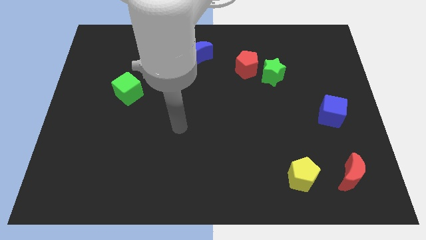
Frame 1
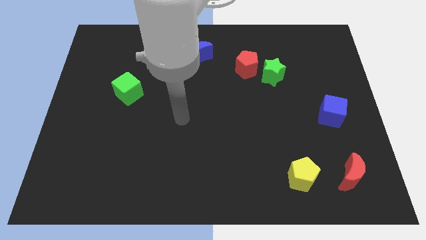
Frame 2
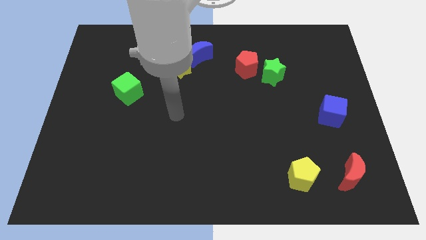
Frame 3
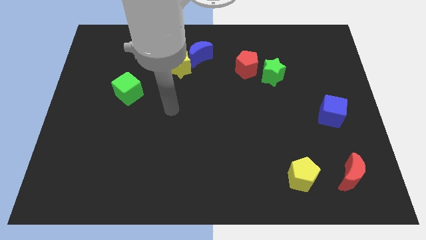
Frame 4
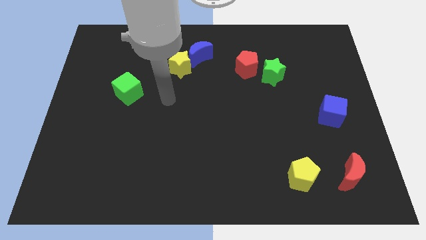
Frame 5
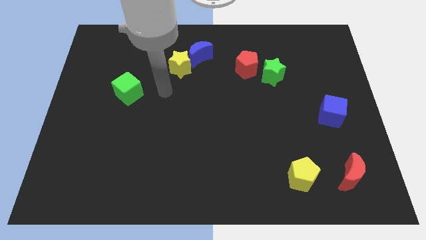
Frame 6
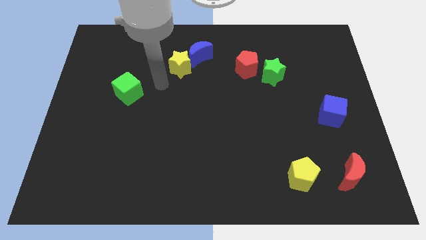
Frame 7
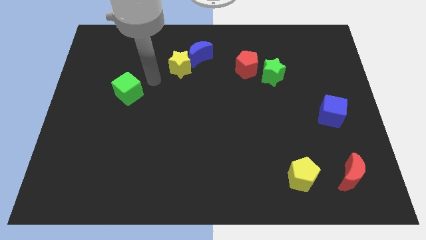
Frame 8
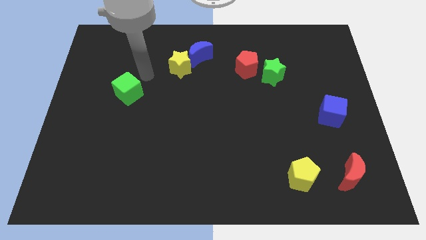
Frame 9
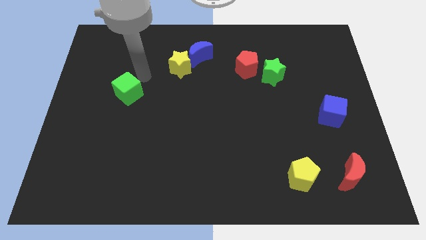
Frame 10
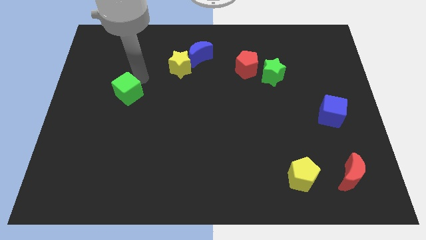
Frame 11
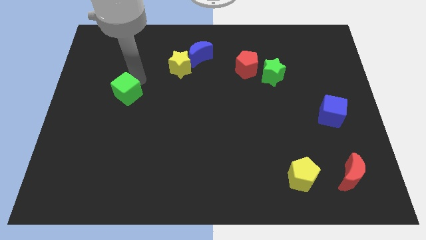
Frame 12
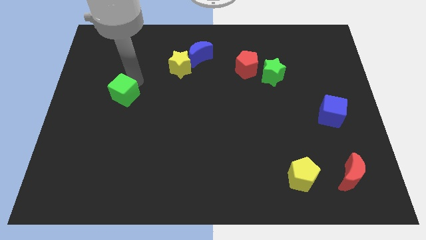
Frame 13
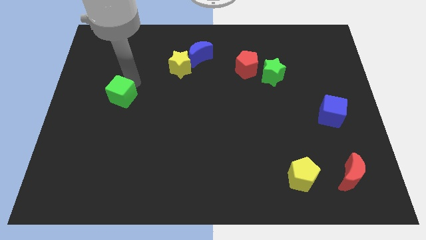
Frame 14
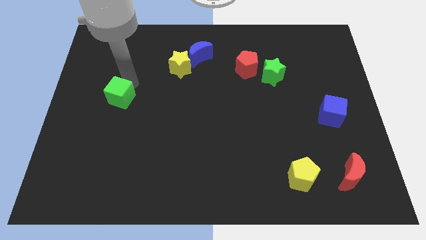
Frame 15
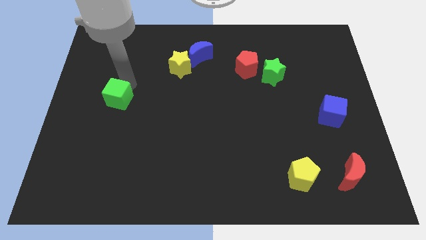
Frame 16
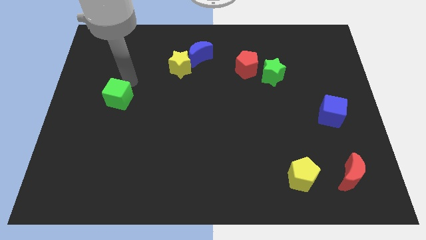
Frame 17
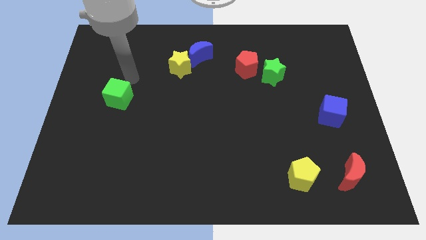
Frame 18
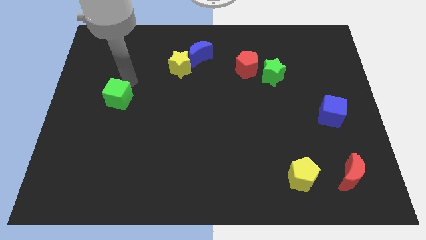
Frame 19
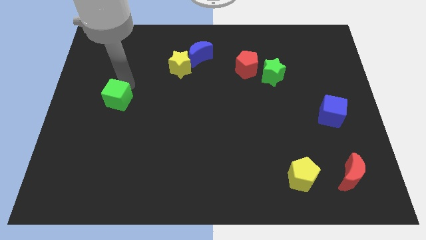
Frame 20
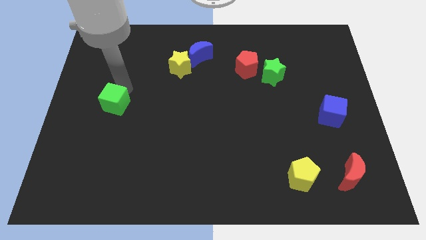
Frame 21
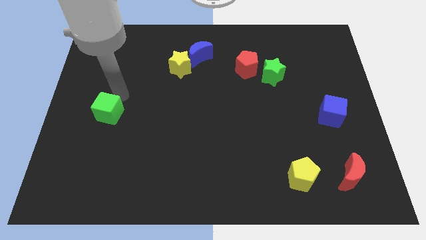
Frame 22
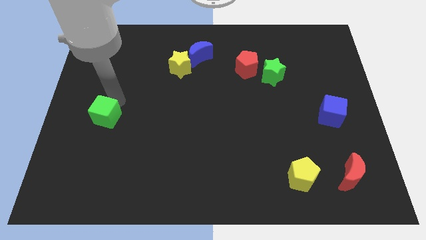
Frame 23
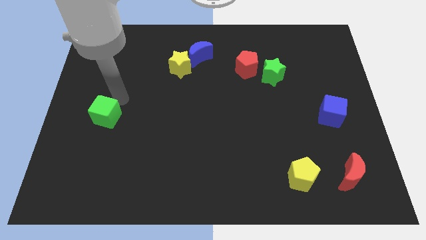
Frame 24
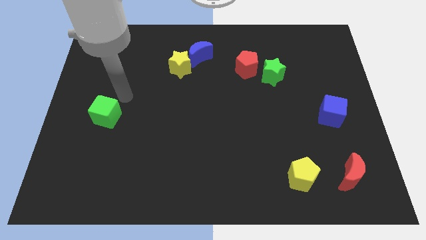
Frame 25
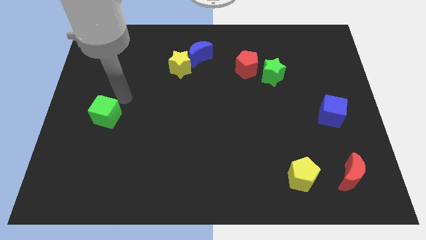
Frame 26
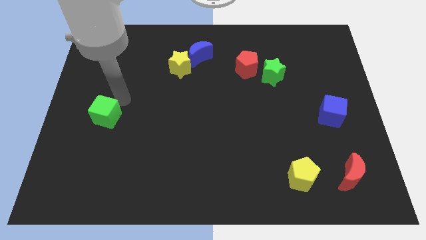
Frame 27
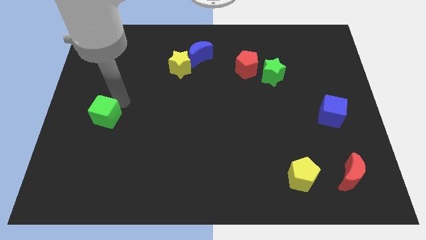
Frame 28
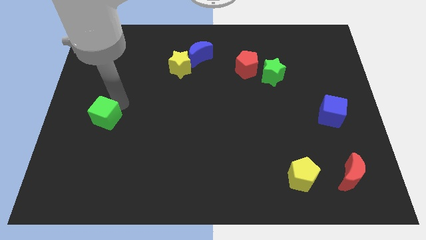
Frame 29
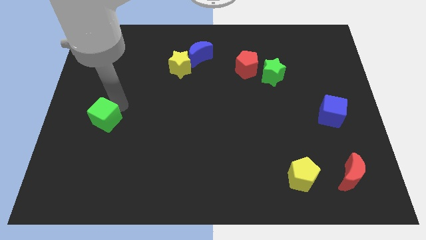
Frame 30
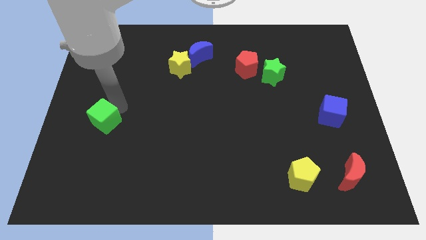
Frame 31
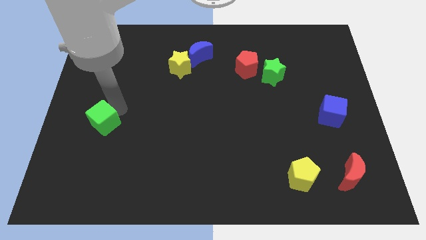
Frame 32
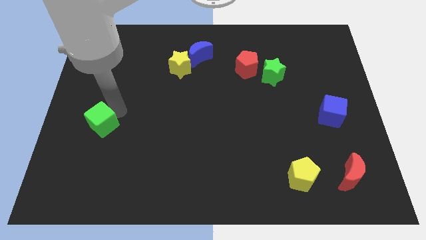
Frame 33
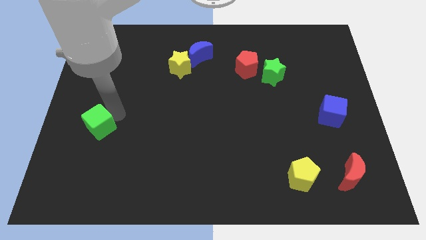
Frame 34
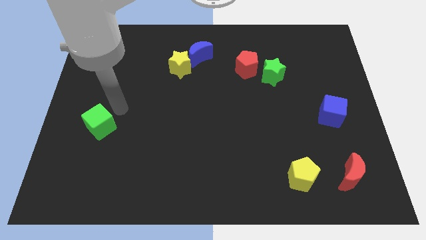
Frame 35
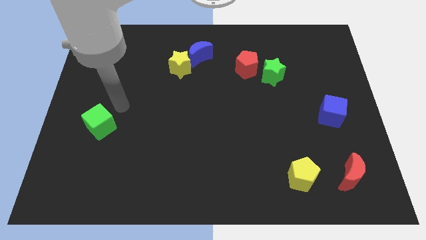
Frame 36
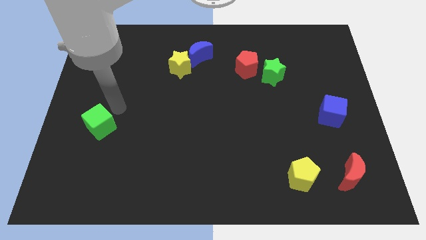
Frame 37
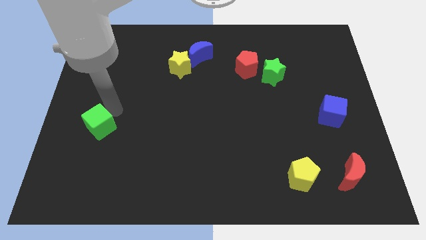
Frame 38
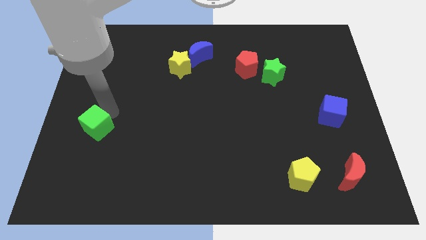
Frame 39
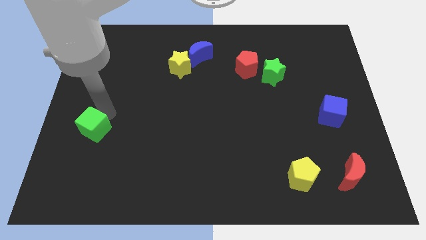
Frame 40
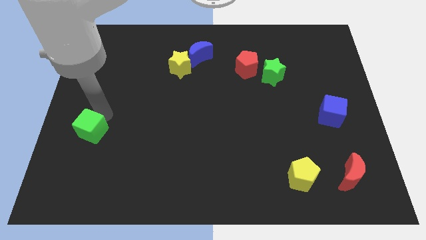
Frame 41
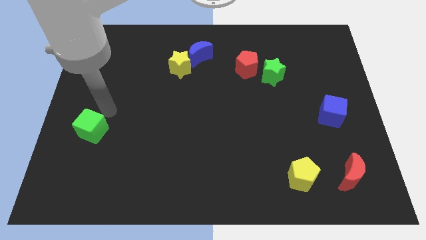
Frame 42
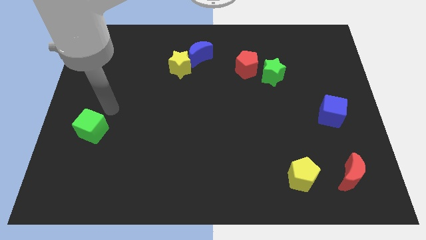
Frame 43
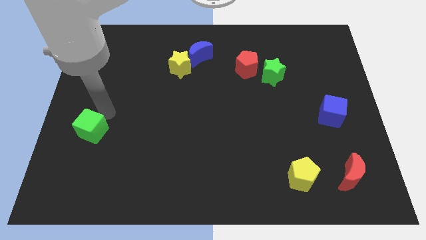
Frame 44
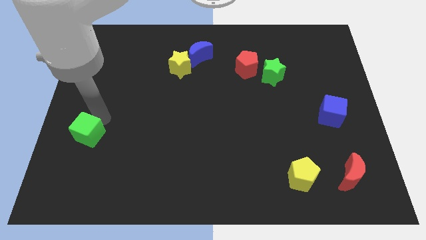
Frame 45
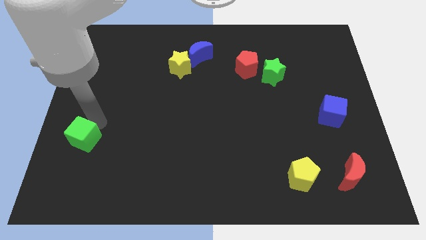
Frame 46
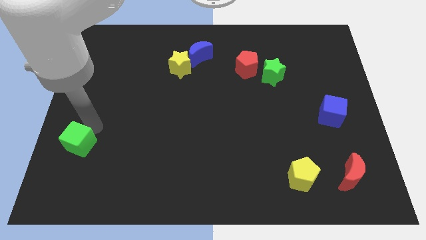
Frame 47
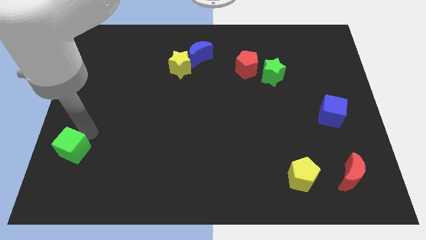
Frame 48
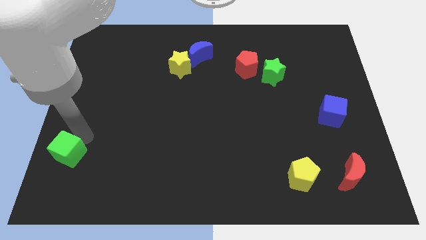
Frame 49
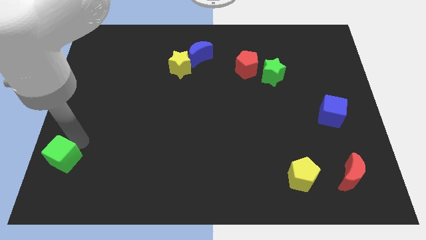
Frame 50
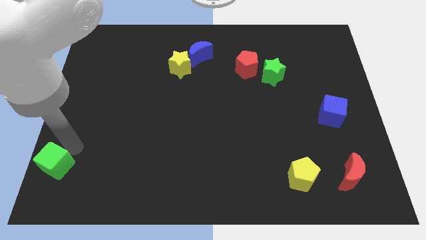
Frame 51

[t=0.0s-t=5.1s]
move the green cube to the bottom left corner
